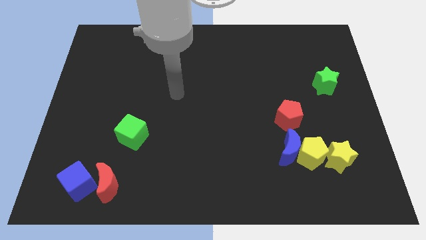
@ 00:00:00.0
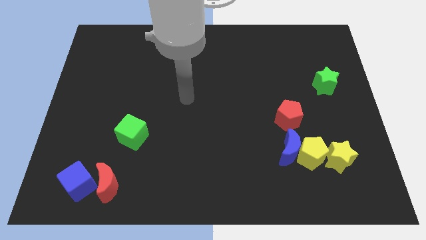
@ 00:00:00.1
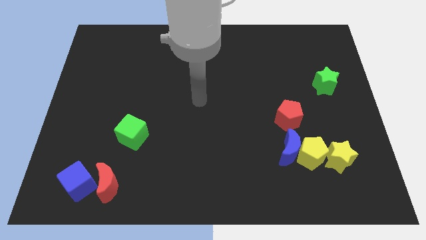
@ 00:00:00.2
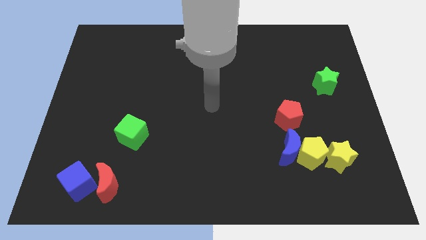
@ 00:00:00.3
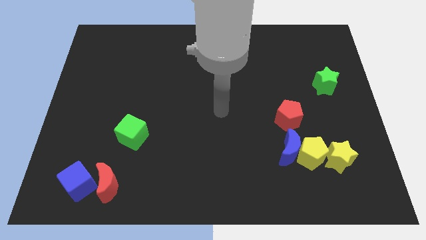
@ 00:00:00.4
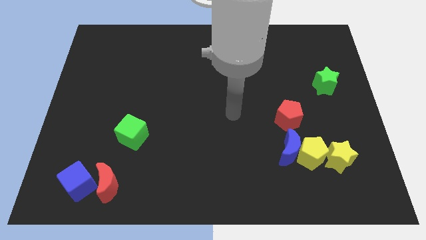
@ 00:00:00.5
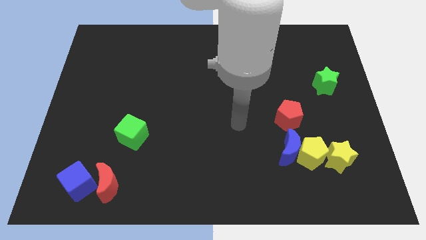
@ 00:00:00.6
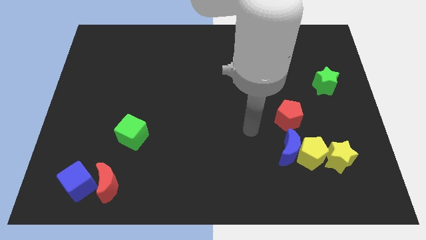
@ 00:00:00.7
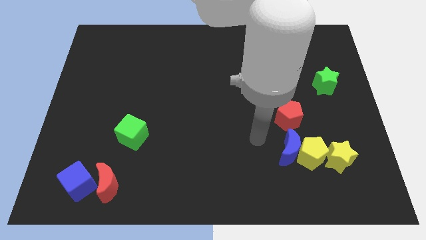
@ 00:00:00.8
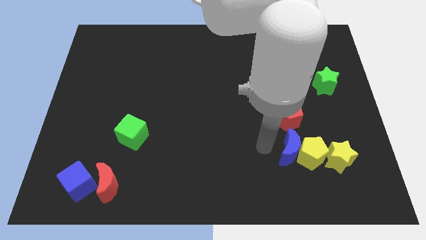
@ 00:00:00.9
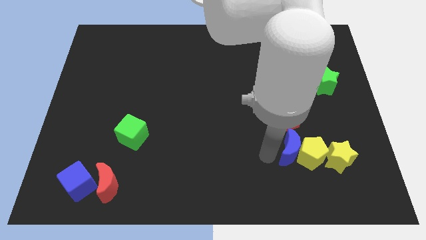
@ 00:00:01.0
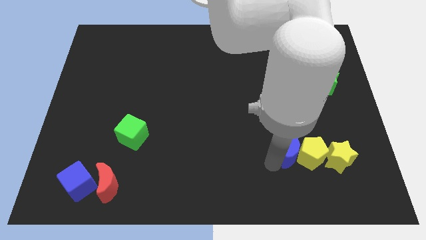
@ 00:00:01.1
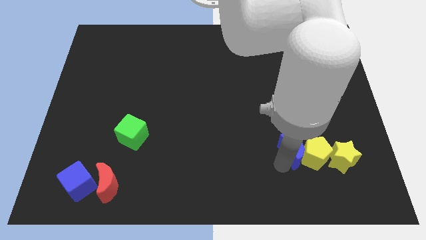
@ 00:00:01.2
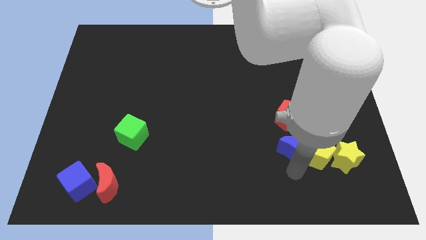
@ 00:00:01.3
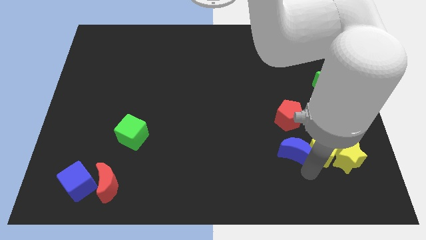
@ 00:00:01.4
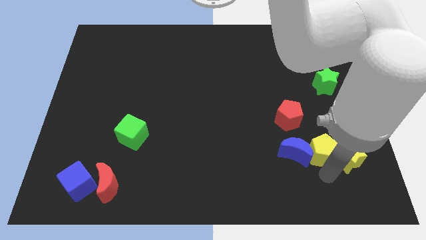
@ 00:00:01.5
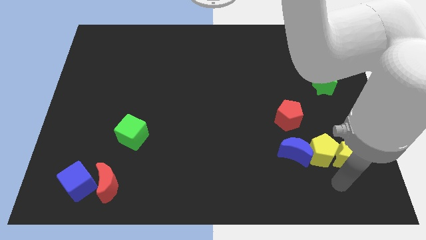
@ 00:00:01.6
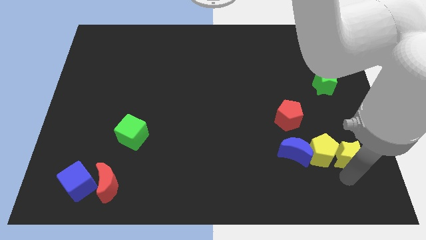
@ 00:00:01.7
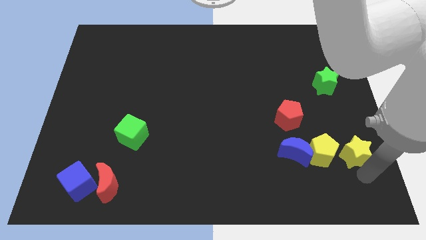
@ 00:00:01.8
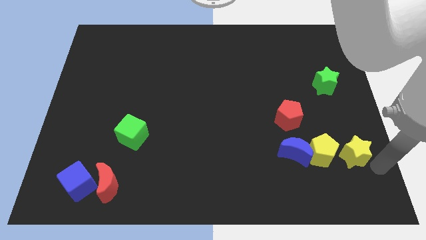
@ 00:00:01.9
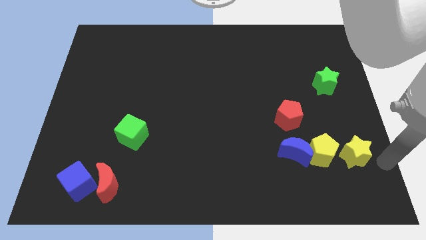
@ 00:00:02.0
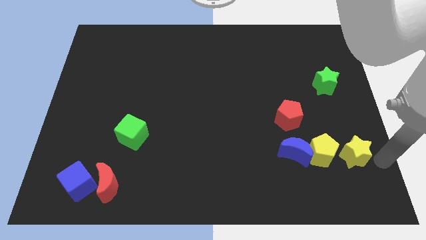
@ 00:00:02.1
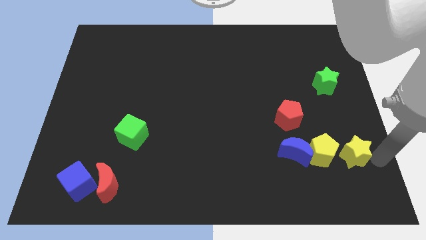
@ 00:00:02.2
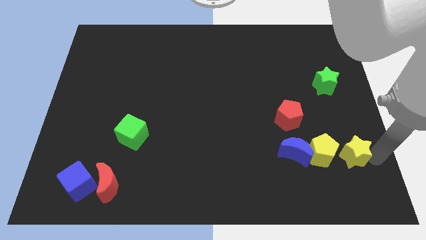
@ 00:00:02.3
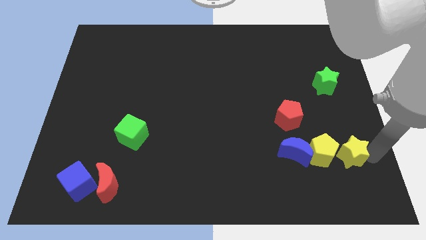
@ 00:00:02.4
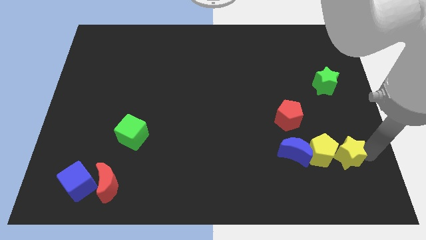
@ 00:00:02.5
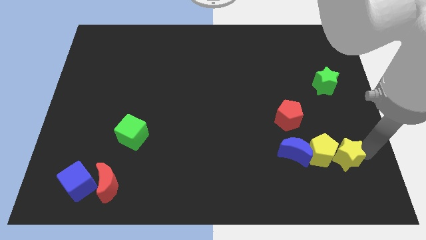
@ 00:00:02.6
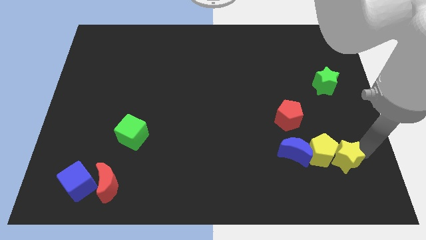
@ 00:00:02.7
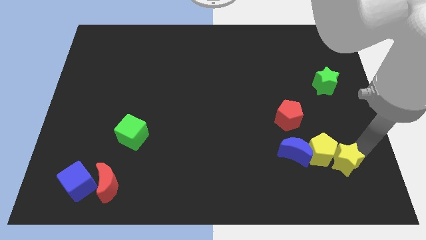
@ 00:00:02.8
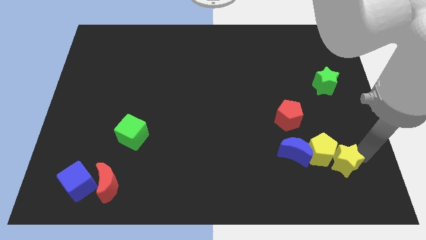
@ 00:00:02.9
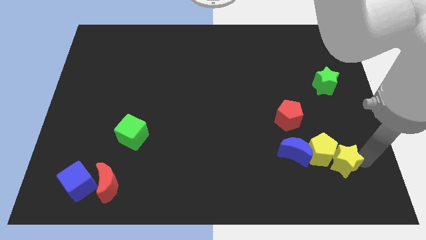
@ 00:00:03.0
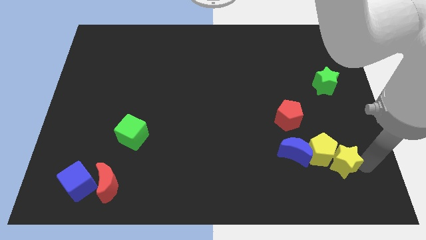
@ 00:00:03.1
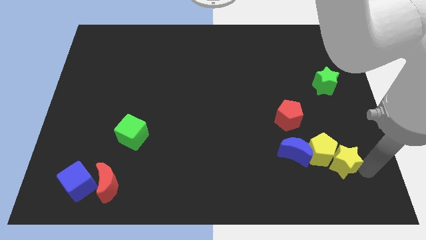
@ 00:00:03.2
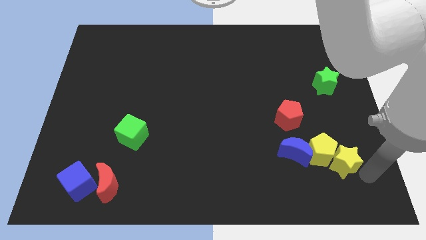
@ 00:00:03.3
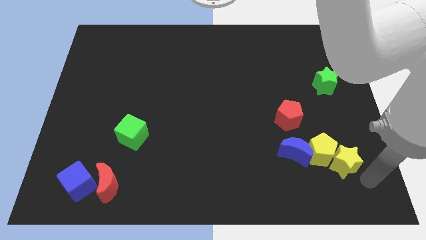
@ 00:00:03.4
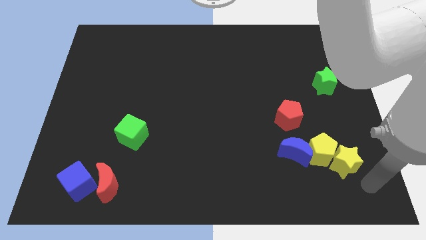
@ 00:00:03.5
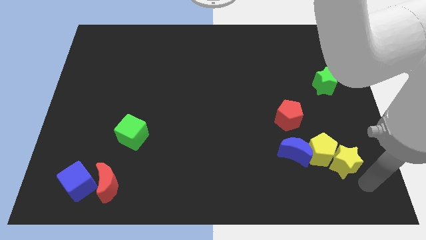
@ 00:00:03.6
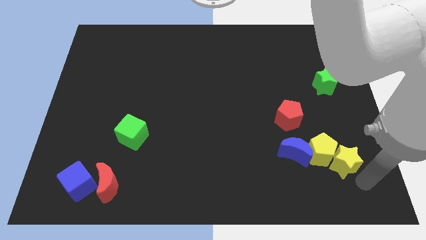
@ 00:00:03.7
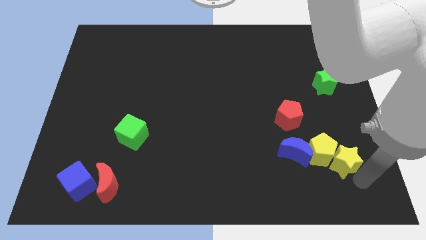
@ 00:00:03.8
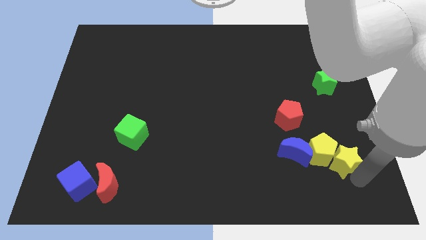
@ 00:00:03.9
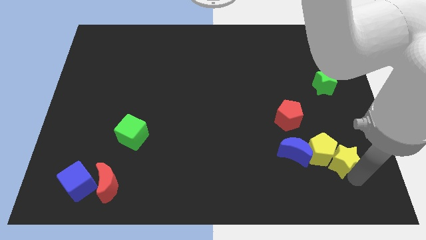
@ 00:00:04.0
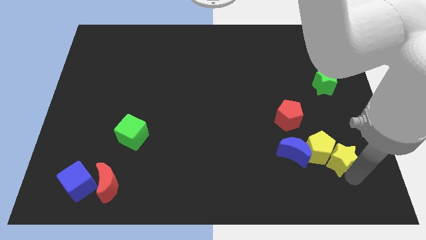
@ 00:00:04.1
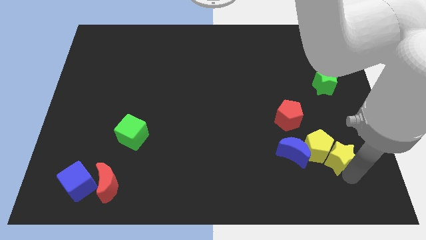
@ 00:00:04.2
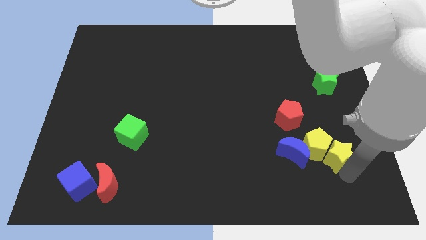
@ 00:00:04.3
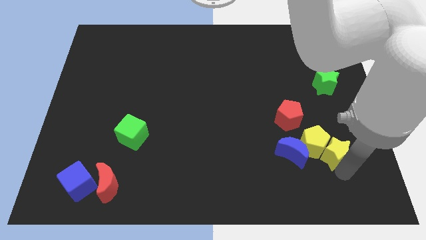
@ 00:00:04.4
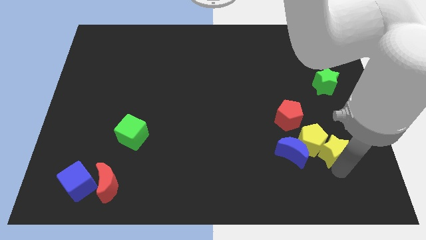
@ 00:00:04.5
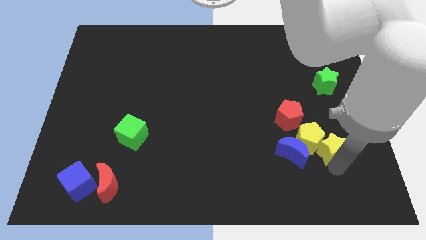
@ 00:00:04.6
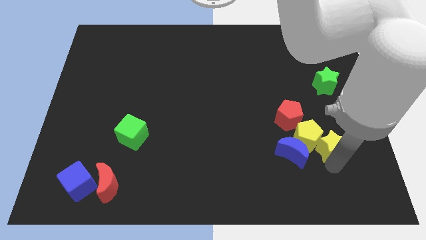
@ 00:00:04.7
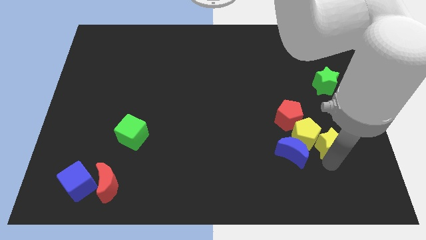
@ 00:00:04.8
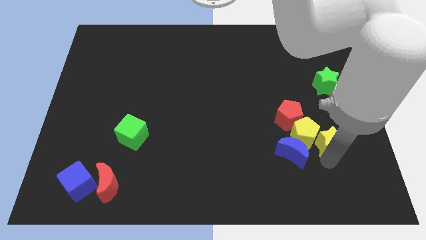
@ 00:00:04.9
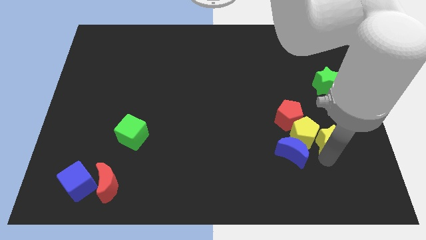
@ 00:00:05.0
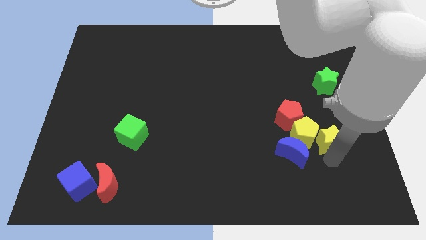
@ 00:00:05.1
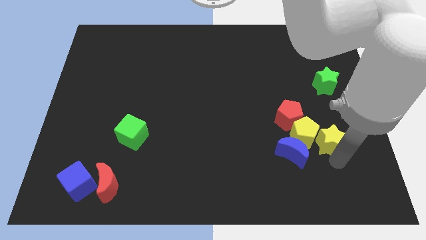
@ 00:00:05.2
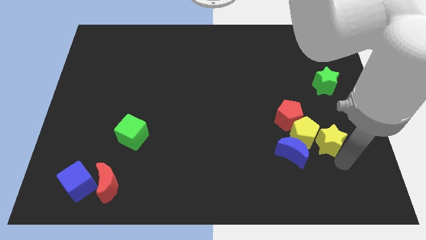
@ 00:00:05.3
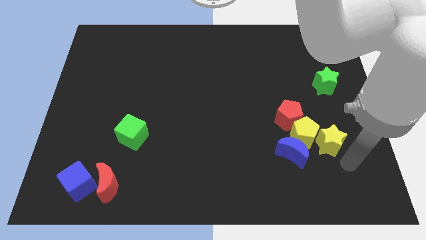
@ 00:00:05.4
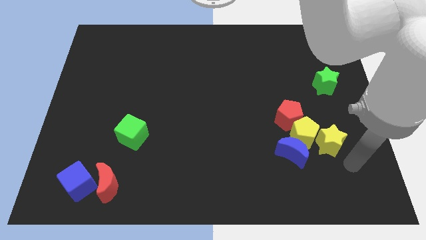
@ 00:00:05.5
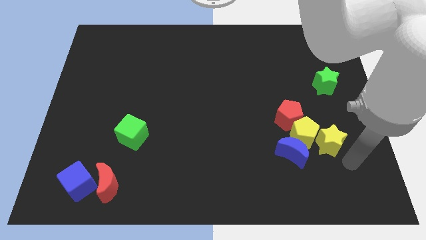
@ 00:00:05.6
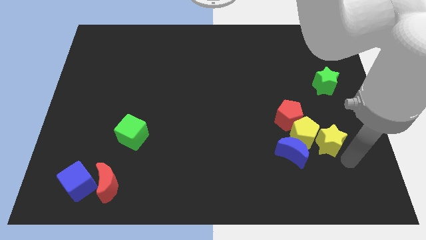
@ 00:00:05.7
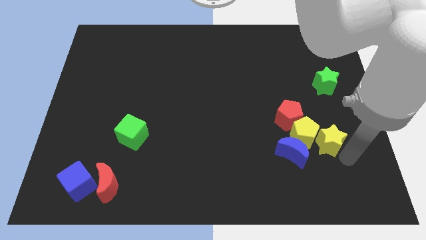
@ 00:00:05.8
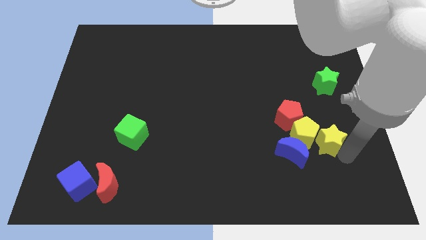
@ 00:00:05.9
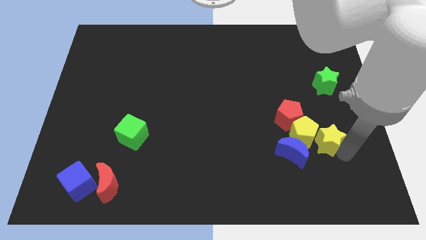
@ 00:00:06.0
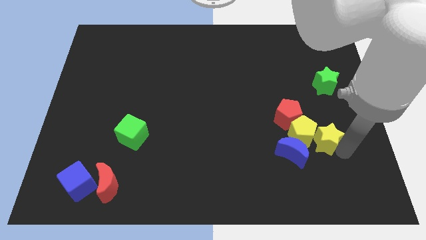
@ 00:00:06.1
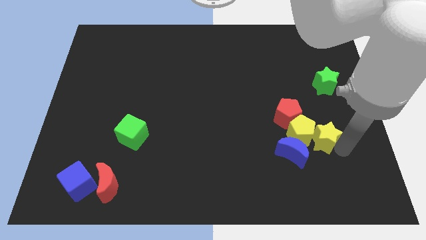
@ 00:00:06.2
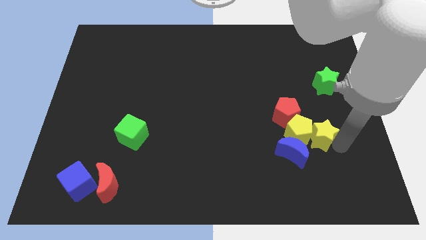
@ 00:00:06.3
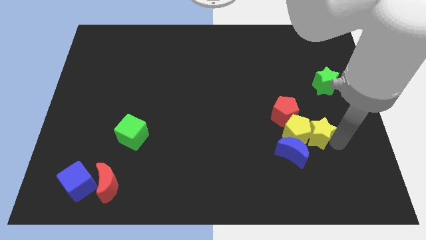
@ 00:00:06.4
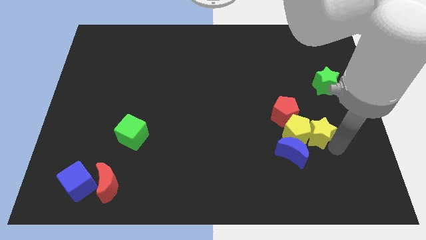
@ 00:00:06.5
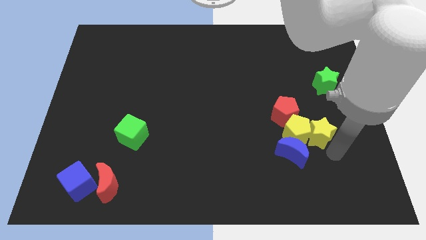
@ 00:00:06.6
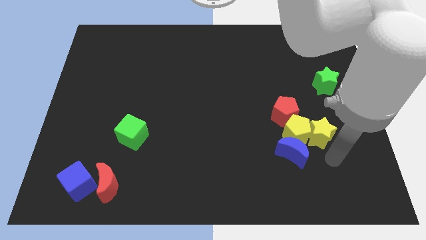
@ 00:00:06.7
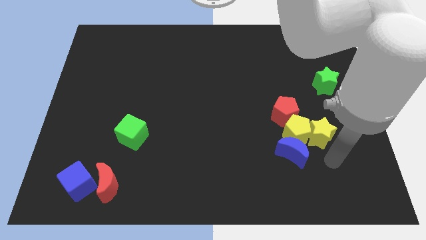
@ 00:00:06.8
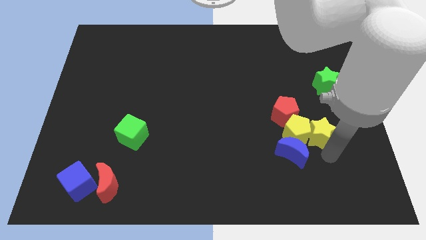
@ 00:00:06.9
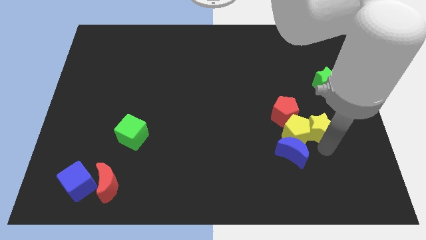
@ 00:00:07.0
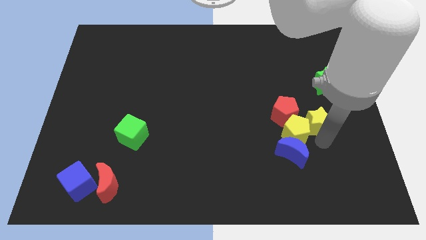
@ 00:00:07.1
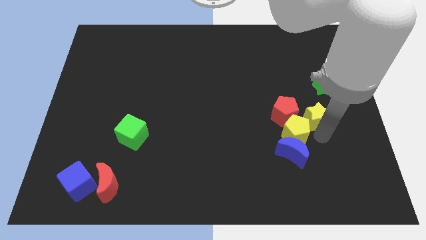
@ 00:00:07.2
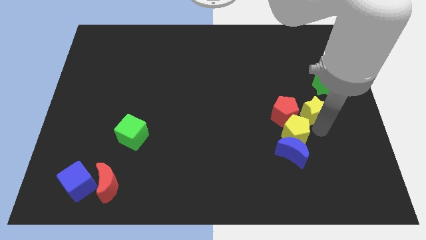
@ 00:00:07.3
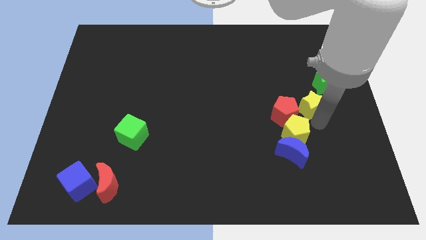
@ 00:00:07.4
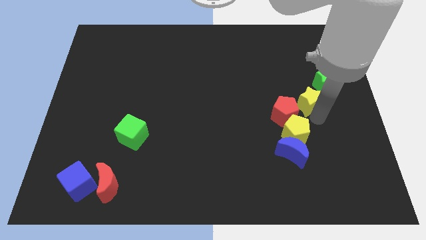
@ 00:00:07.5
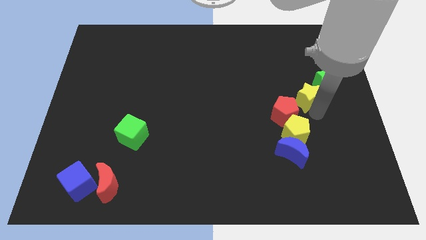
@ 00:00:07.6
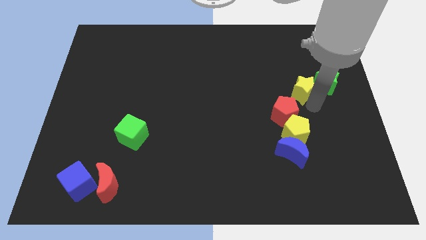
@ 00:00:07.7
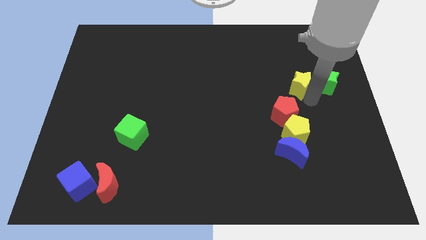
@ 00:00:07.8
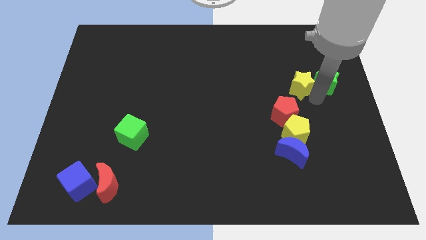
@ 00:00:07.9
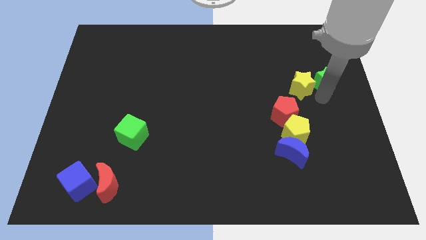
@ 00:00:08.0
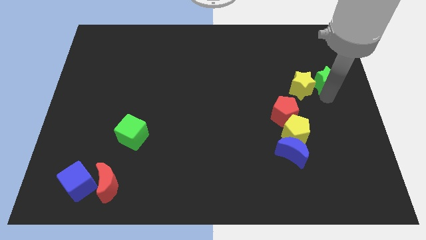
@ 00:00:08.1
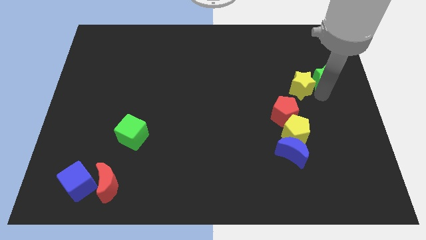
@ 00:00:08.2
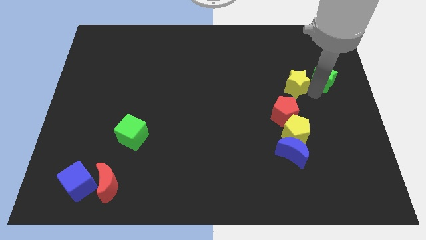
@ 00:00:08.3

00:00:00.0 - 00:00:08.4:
slide the yellow star to the top side of the red pentagon
